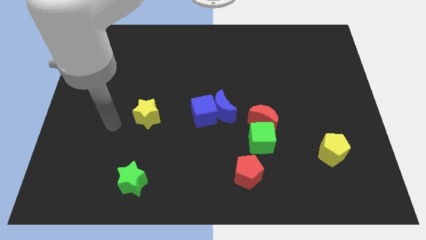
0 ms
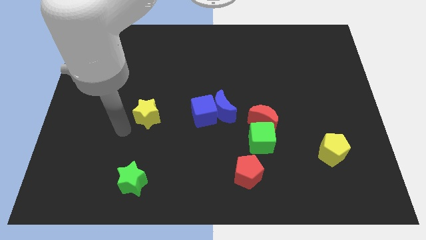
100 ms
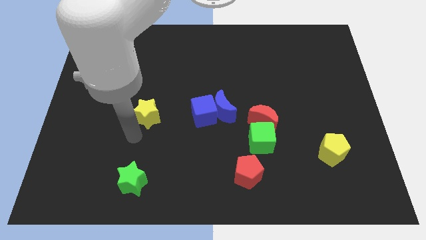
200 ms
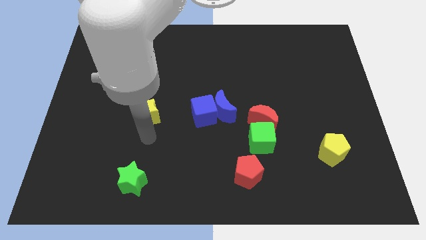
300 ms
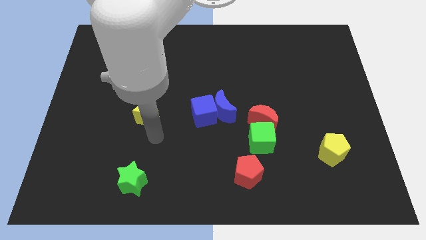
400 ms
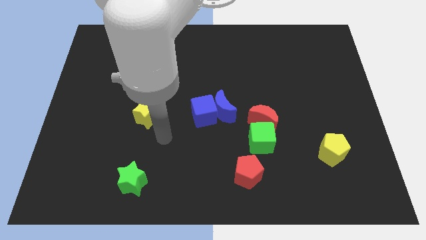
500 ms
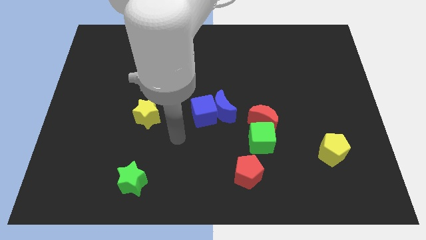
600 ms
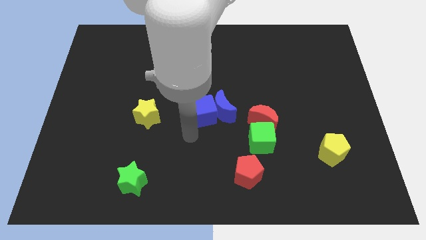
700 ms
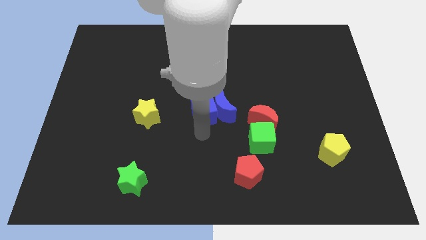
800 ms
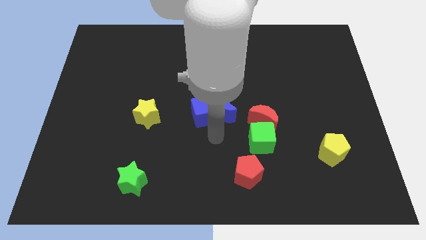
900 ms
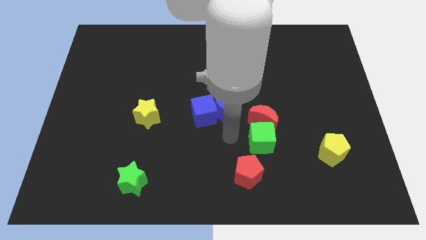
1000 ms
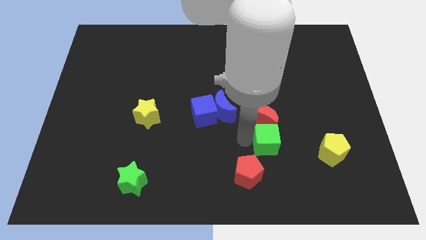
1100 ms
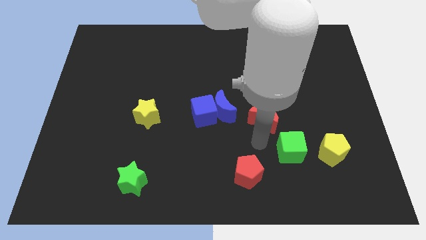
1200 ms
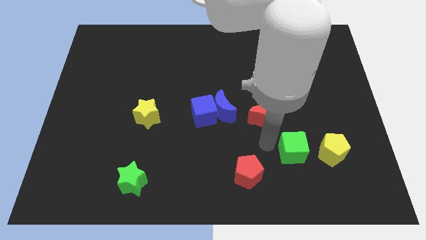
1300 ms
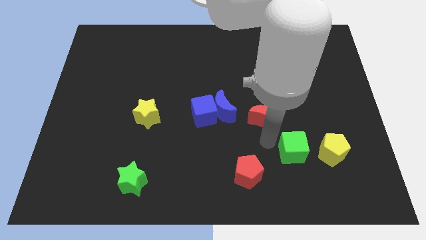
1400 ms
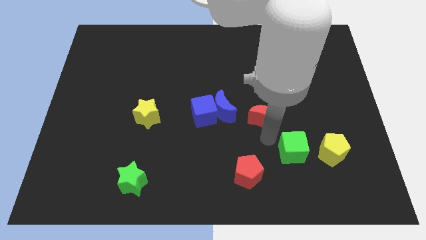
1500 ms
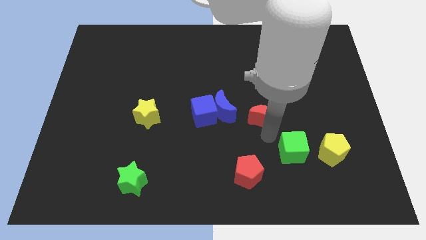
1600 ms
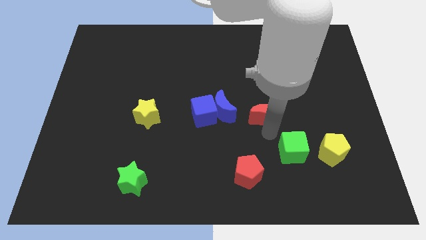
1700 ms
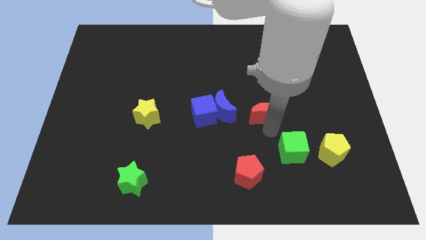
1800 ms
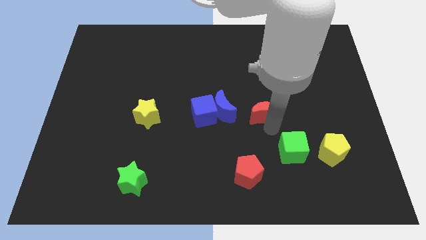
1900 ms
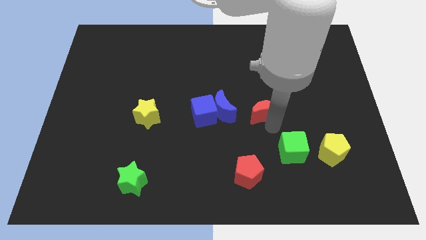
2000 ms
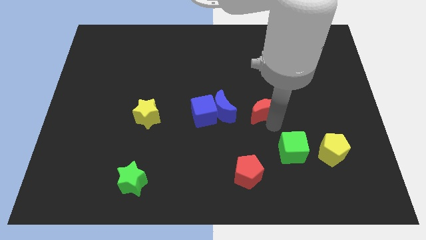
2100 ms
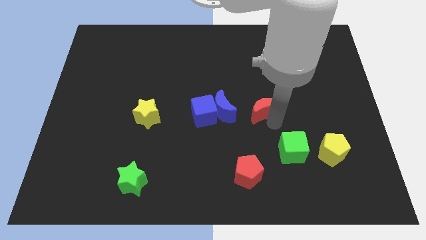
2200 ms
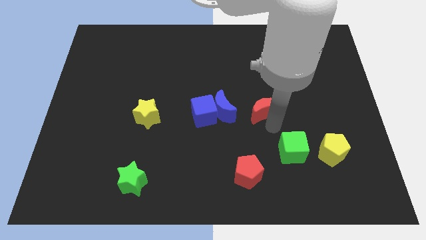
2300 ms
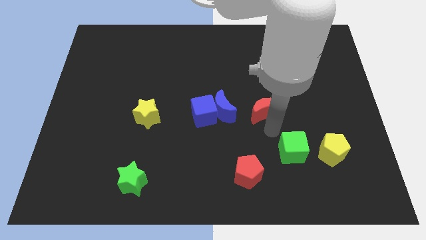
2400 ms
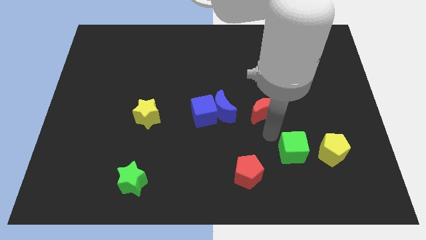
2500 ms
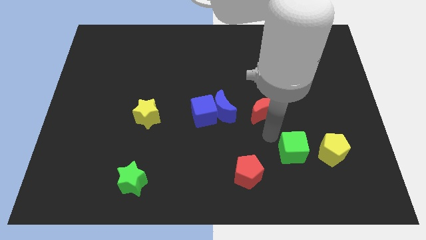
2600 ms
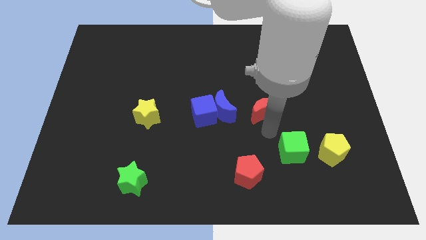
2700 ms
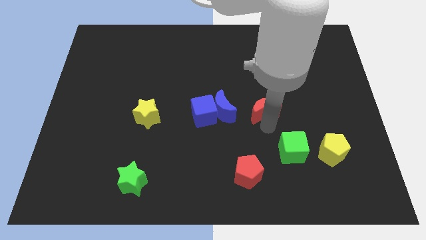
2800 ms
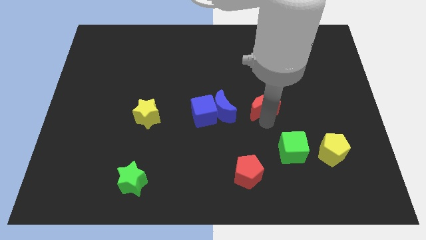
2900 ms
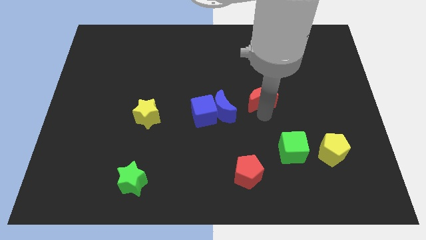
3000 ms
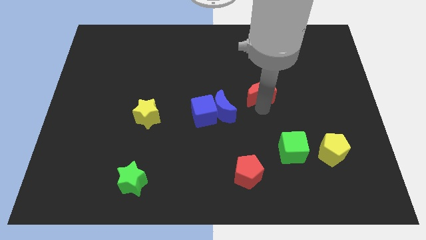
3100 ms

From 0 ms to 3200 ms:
slightly push the red moon upwards

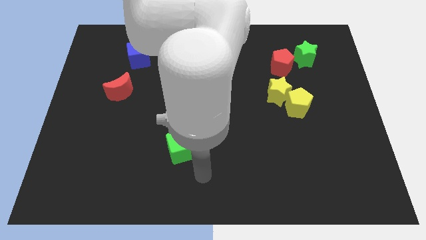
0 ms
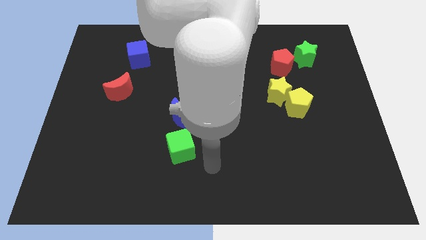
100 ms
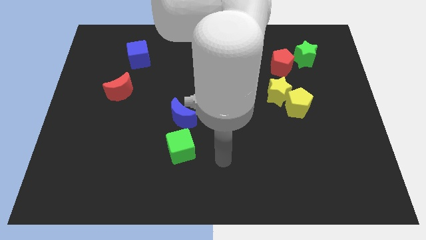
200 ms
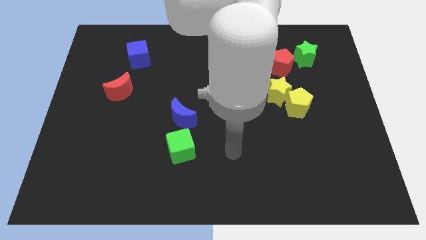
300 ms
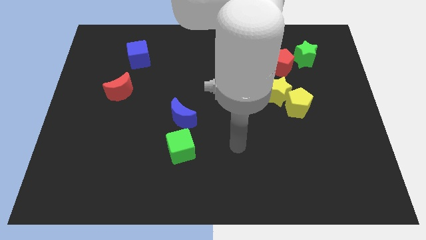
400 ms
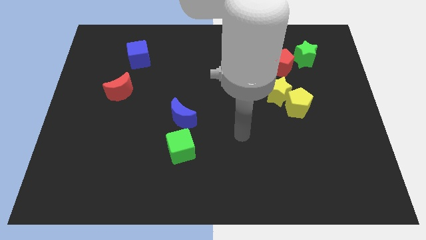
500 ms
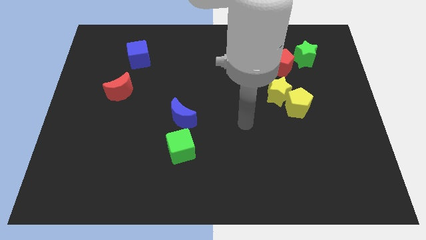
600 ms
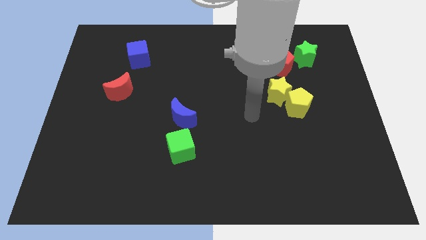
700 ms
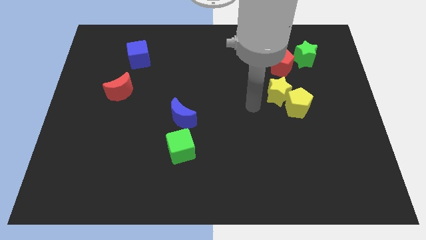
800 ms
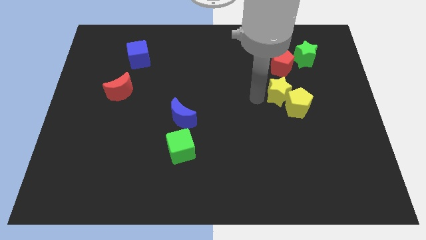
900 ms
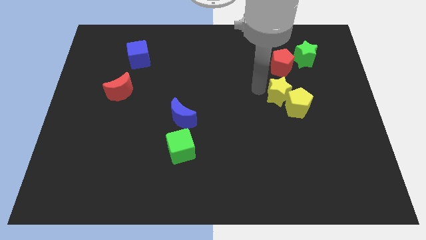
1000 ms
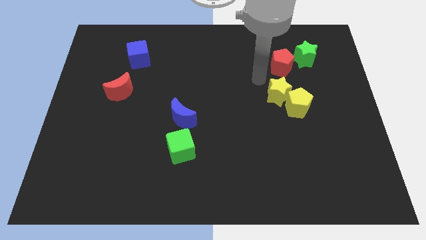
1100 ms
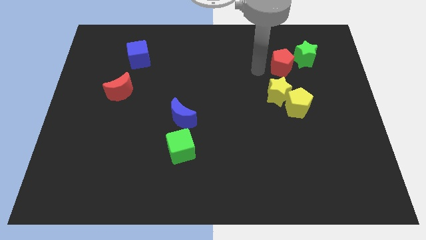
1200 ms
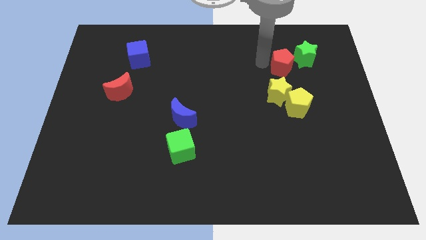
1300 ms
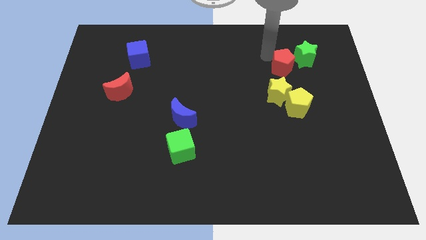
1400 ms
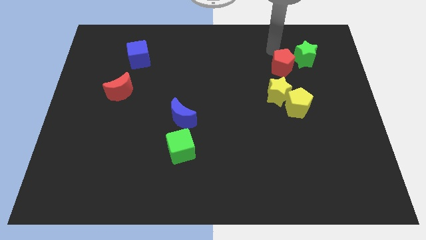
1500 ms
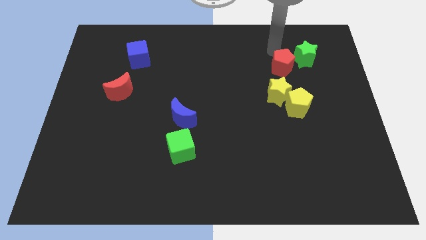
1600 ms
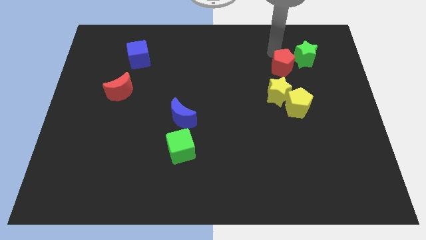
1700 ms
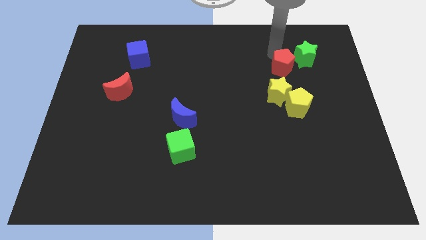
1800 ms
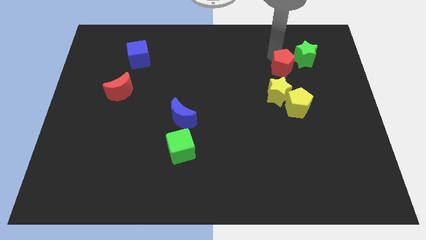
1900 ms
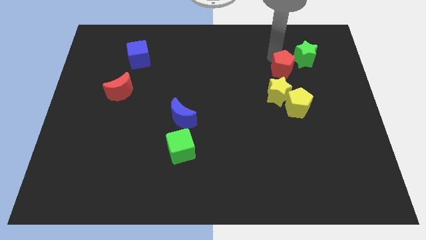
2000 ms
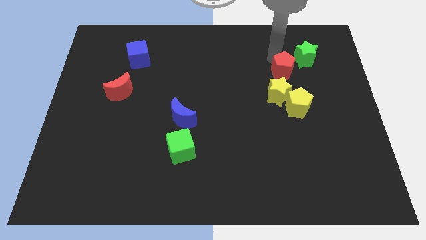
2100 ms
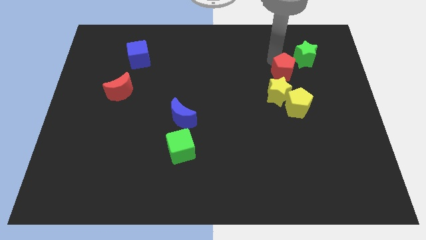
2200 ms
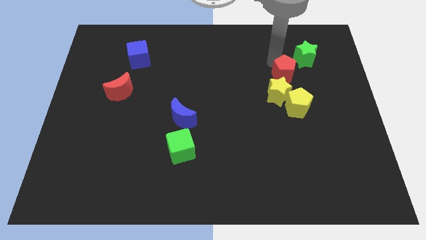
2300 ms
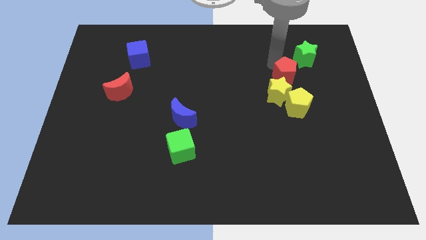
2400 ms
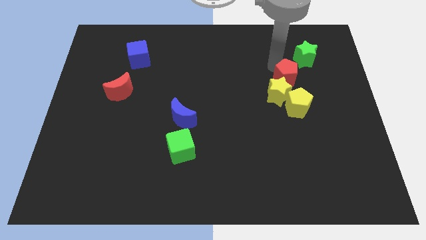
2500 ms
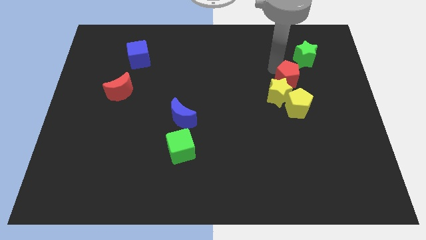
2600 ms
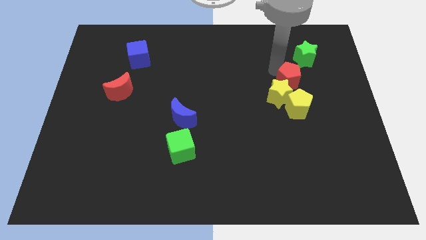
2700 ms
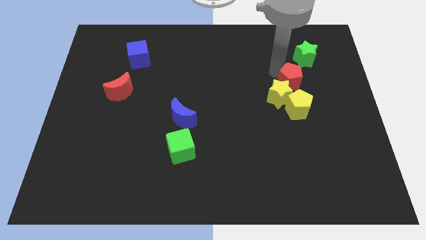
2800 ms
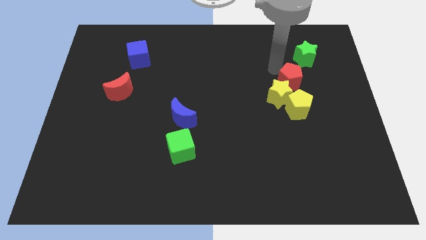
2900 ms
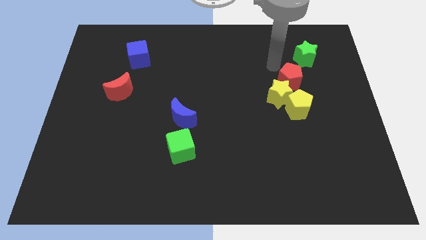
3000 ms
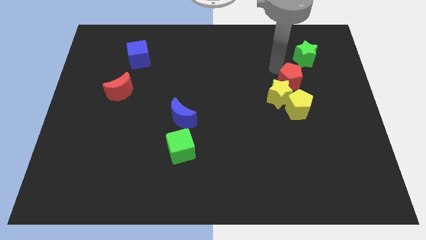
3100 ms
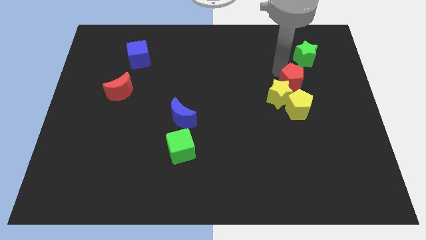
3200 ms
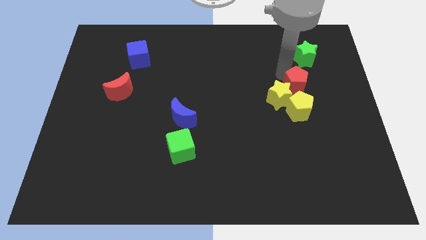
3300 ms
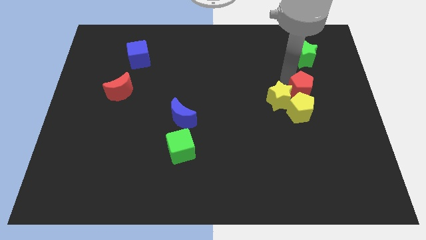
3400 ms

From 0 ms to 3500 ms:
move the red pentagon downwards a little bit

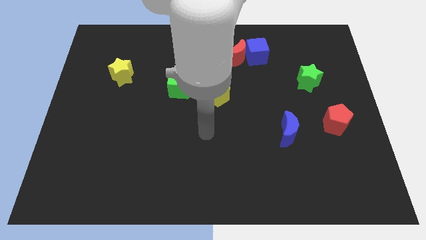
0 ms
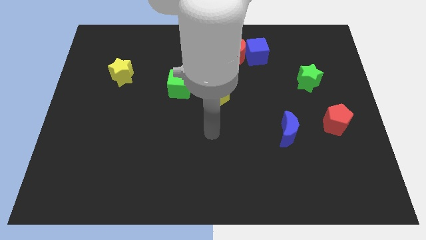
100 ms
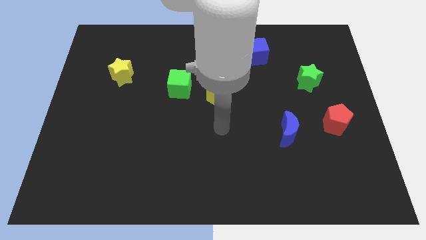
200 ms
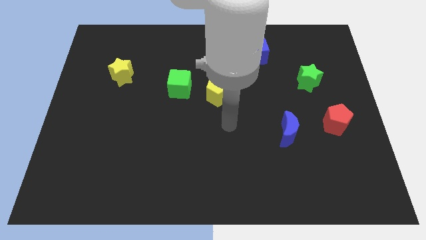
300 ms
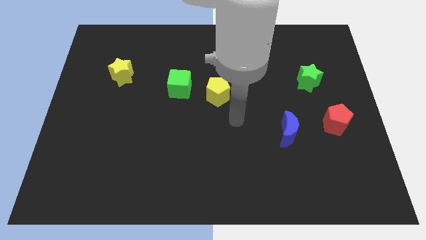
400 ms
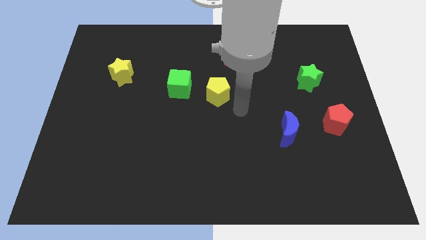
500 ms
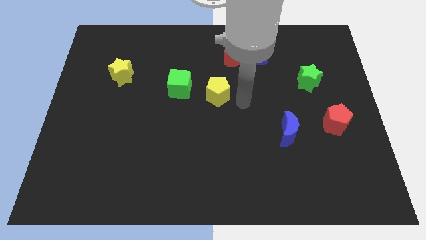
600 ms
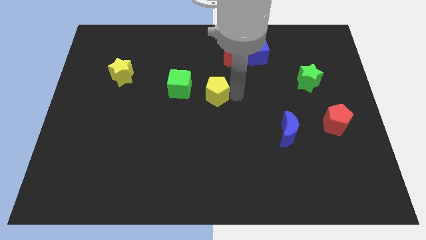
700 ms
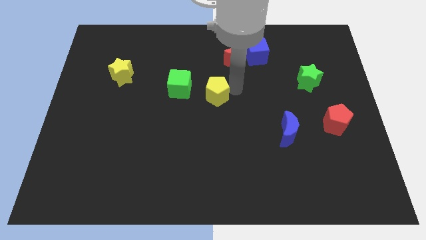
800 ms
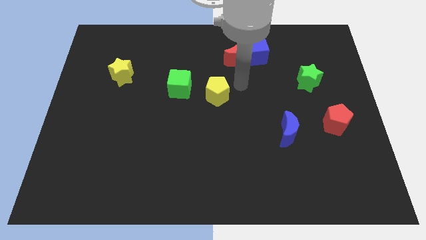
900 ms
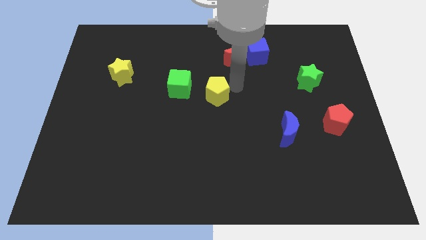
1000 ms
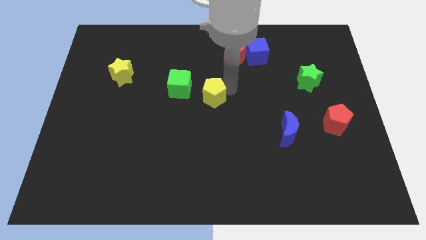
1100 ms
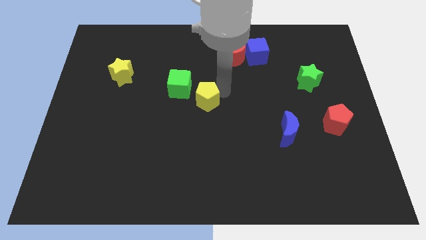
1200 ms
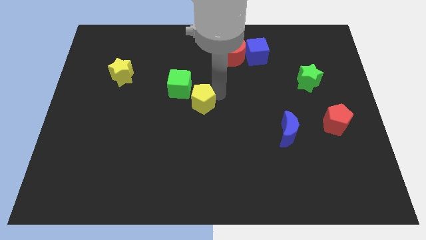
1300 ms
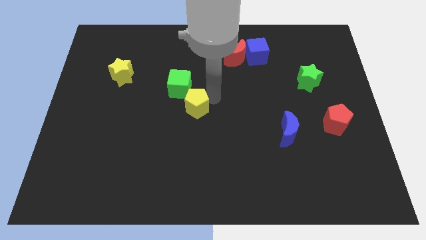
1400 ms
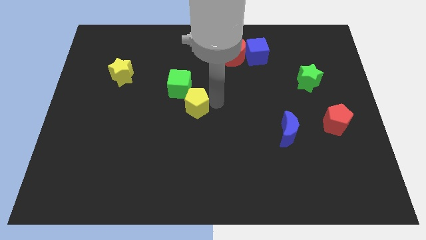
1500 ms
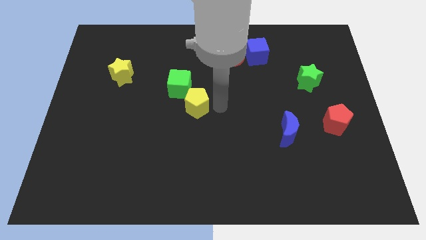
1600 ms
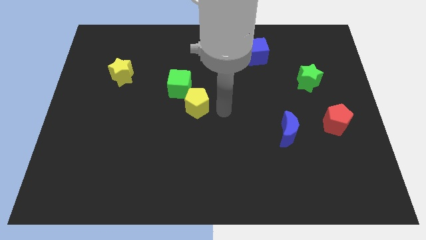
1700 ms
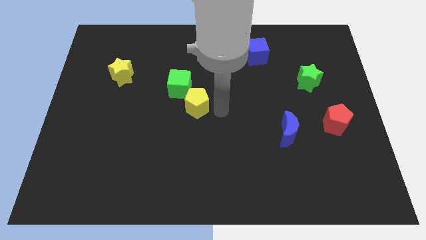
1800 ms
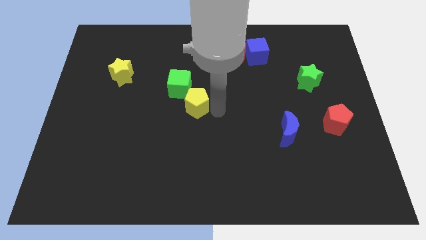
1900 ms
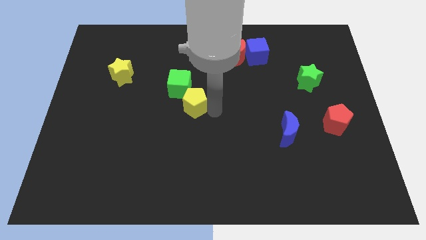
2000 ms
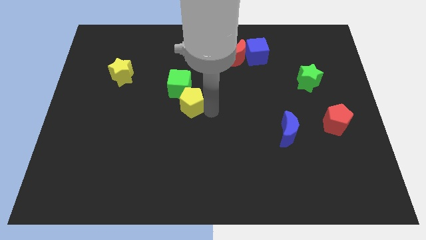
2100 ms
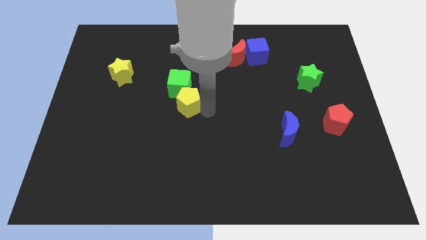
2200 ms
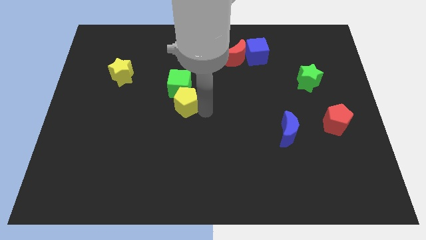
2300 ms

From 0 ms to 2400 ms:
slightly push the yellow pentagon to the left
